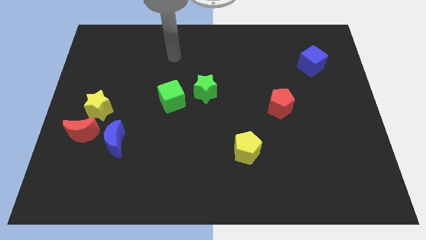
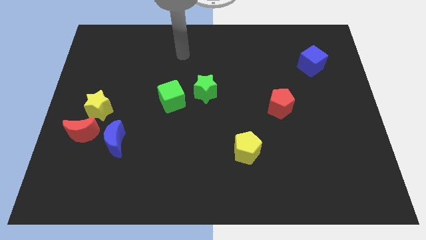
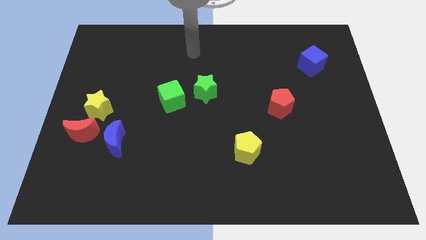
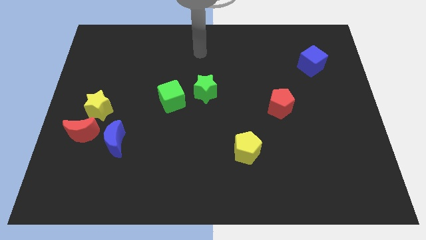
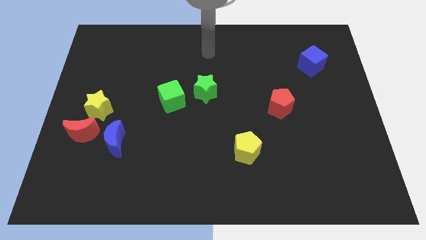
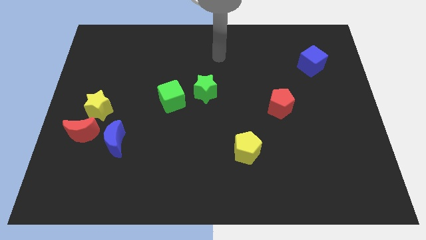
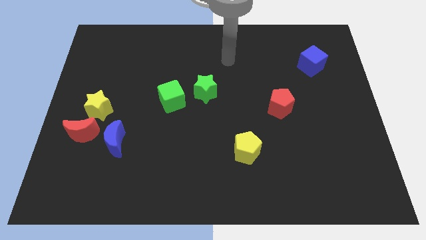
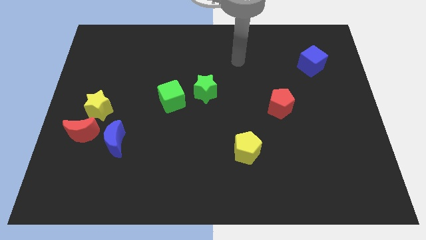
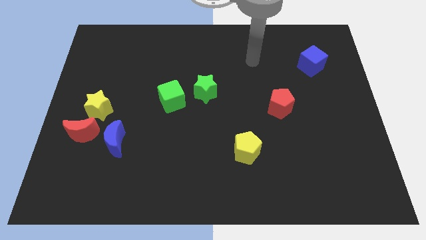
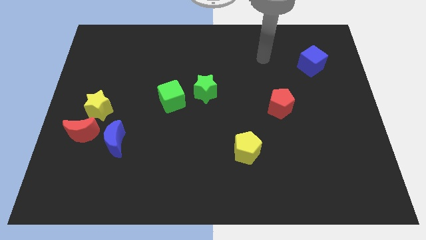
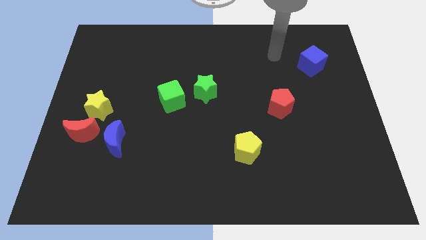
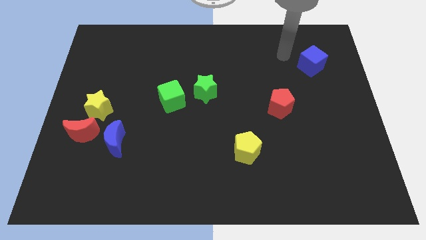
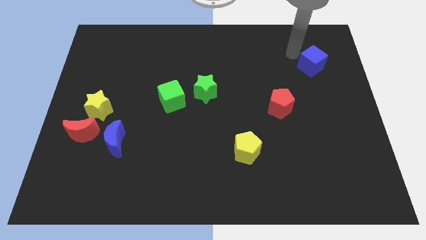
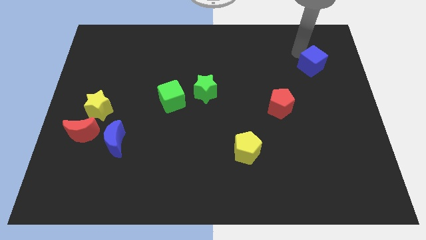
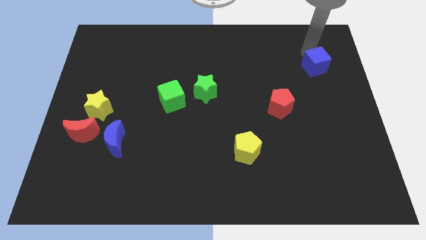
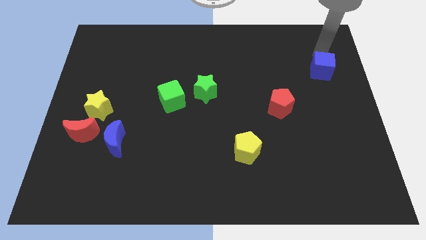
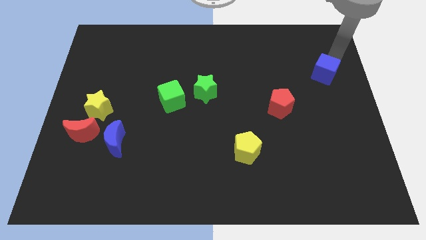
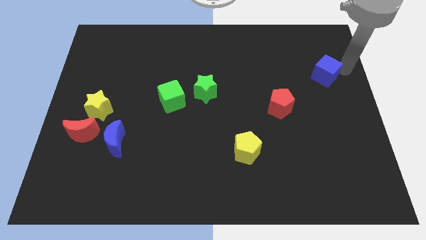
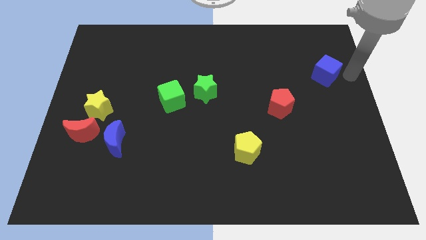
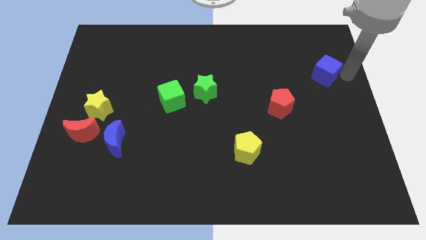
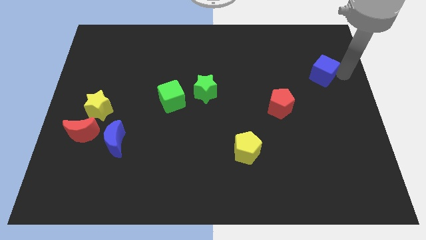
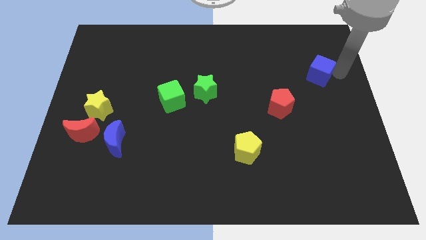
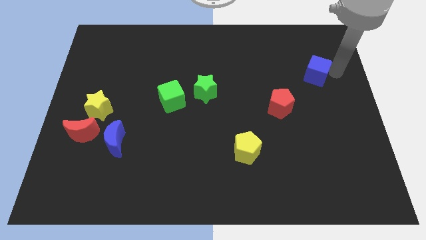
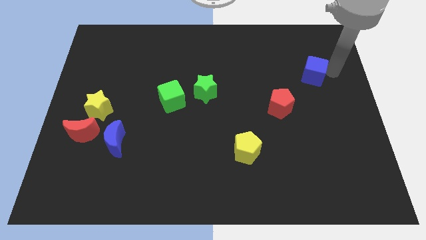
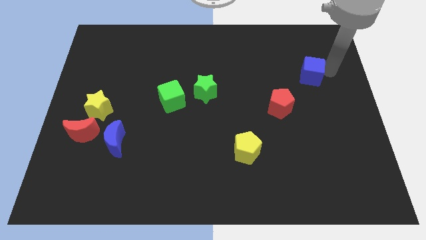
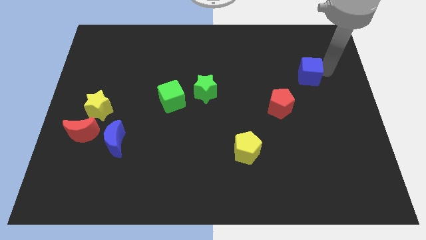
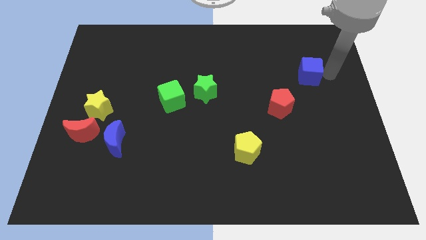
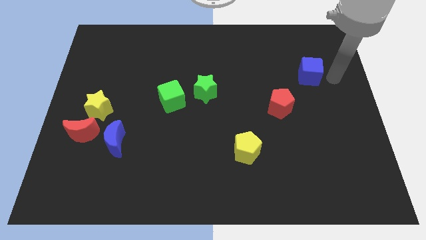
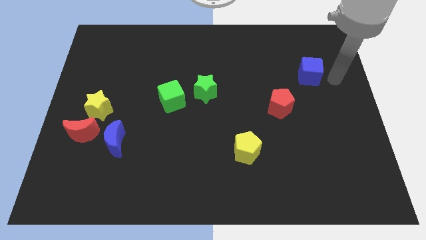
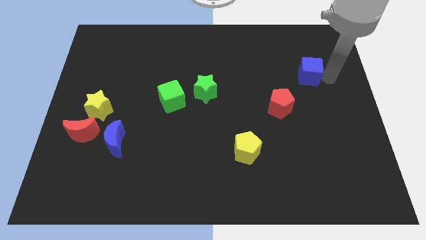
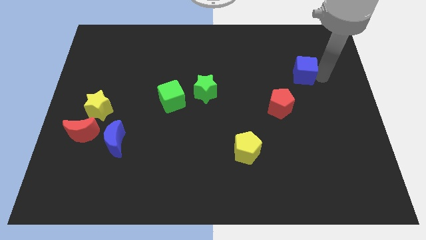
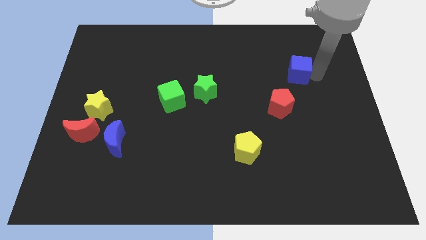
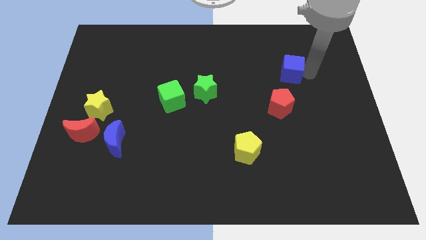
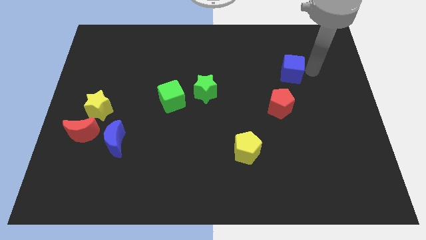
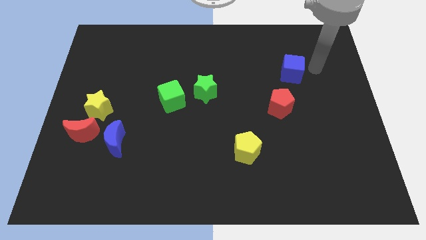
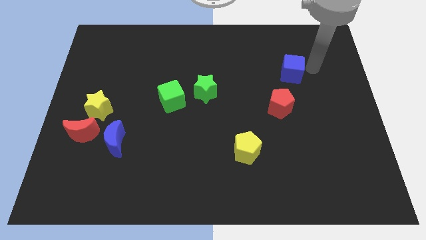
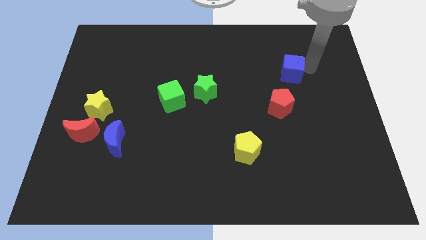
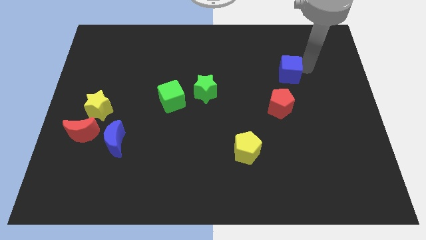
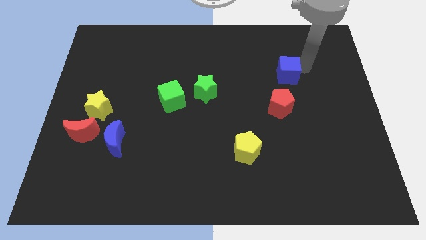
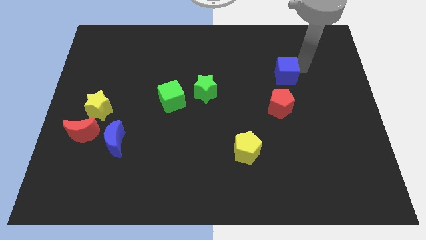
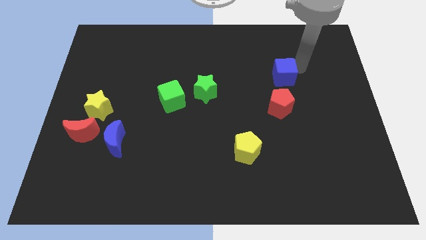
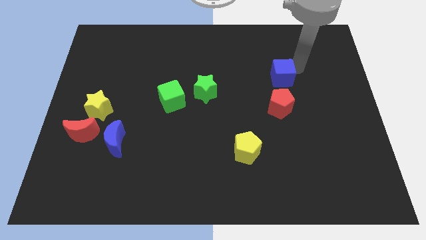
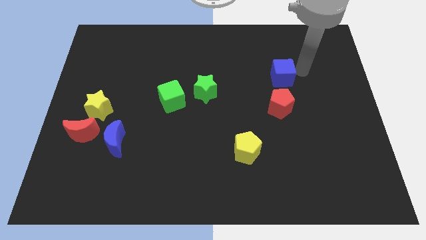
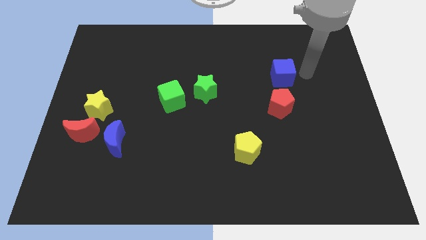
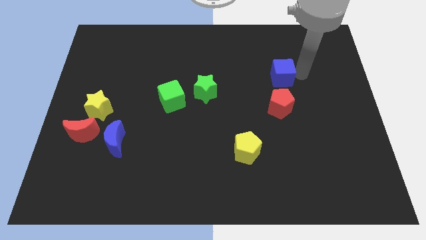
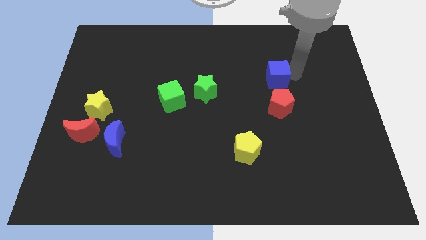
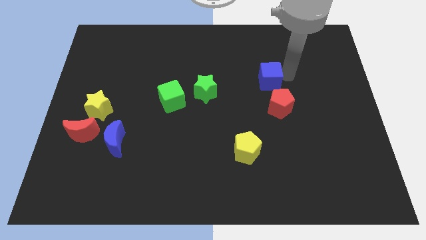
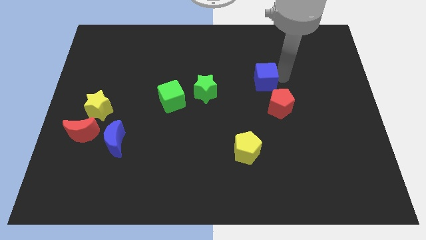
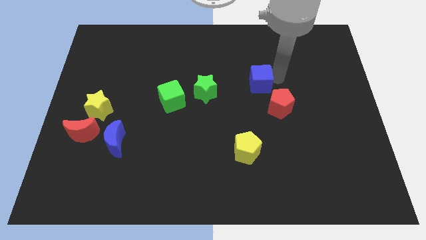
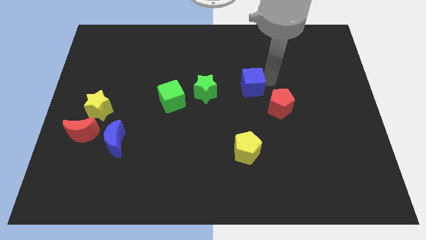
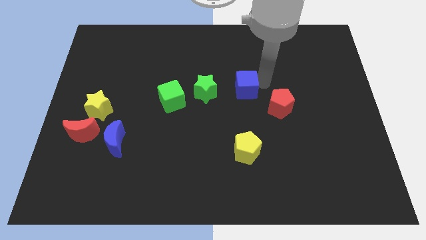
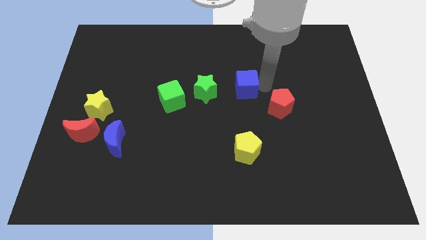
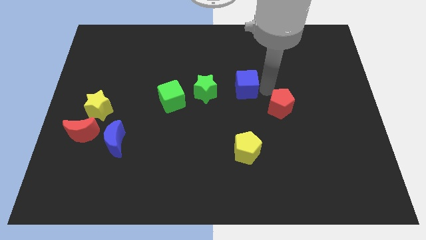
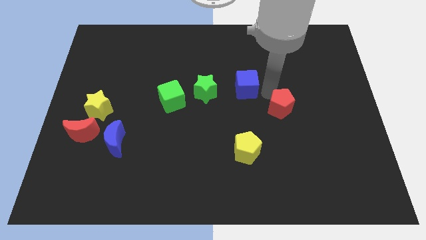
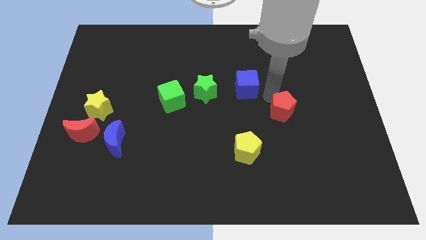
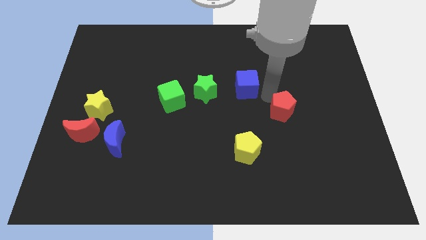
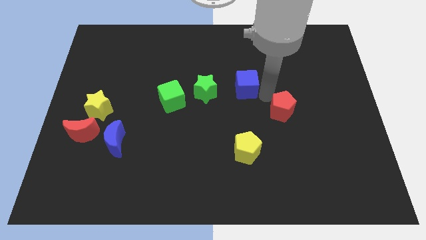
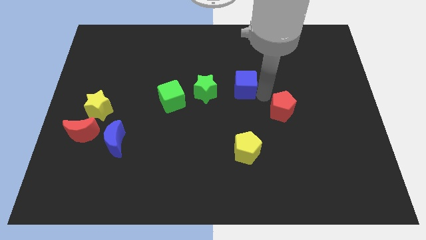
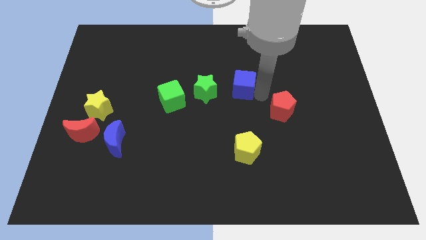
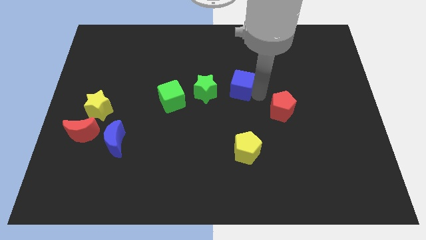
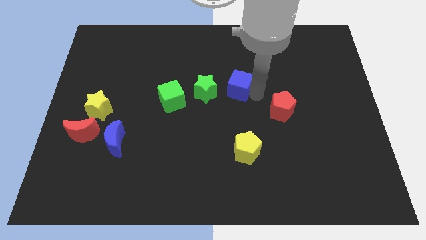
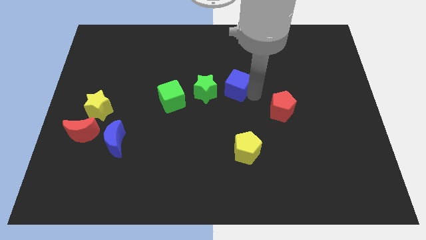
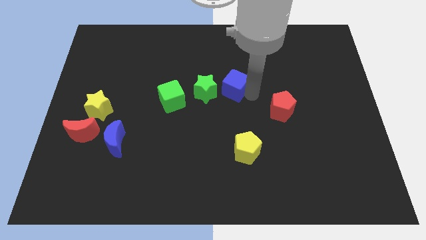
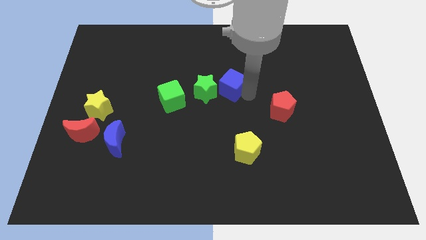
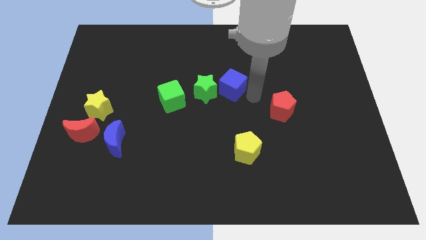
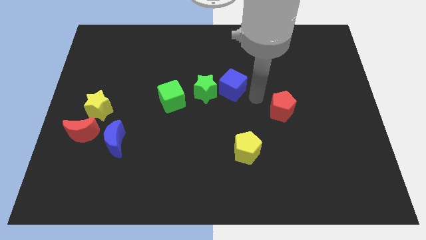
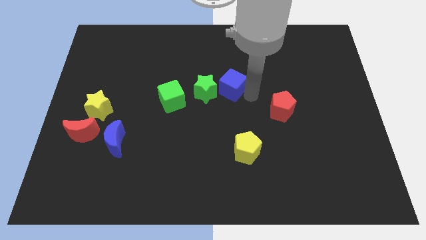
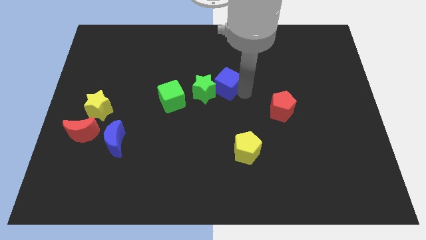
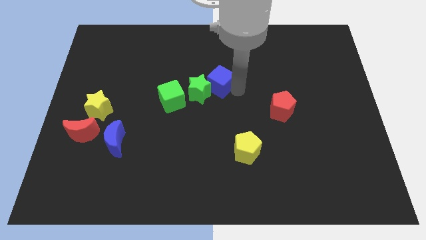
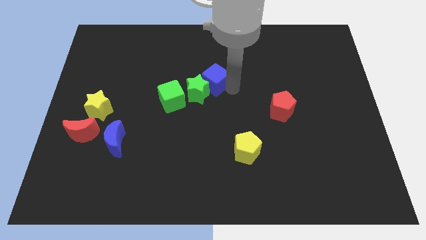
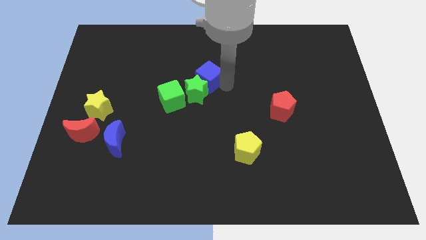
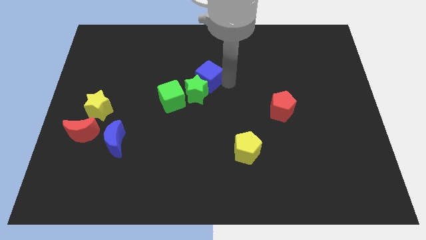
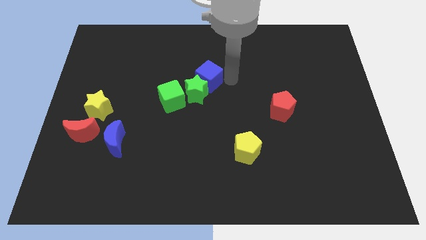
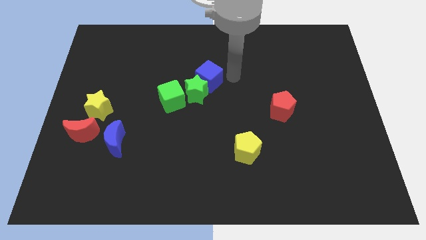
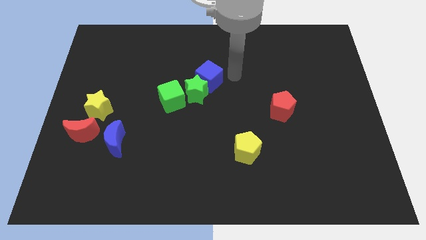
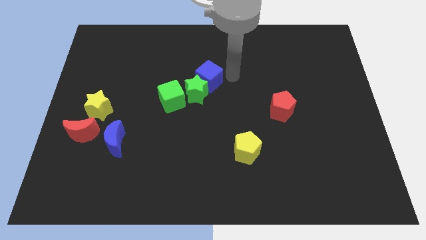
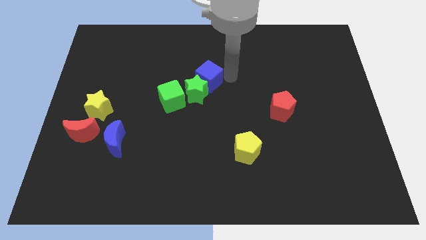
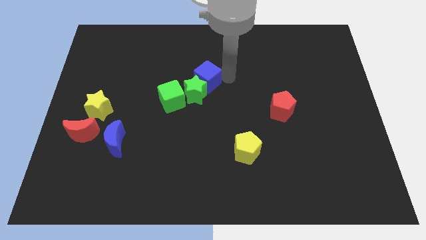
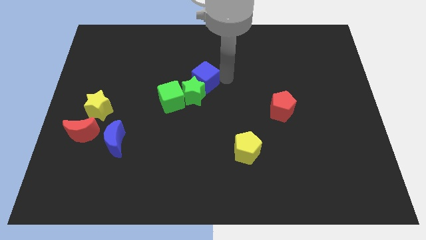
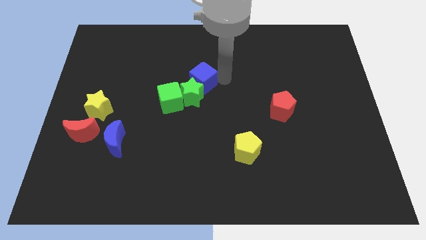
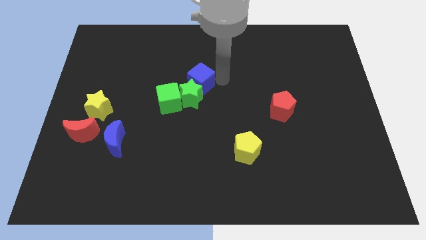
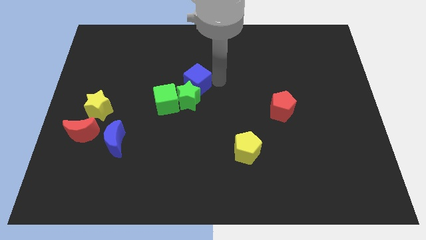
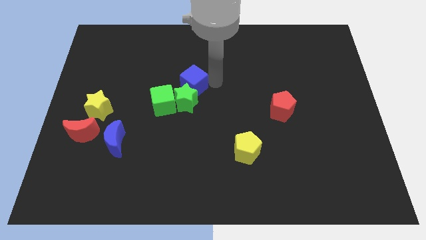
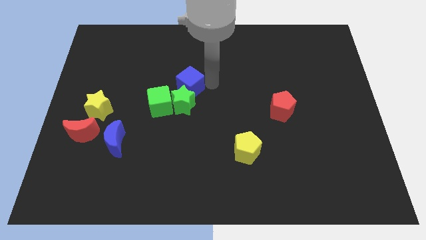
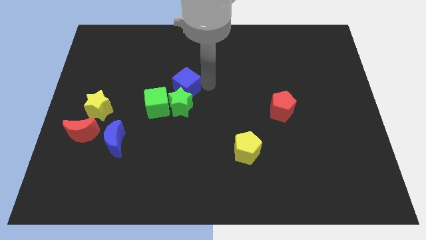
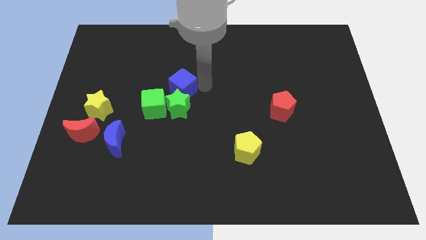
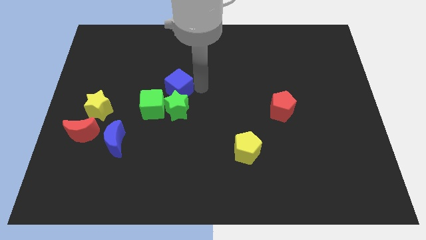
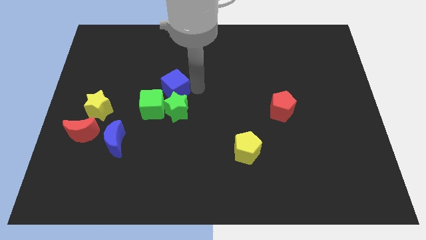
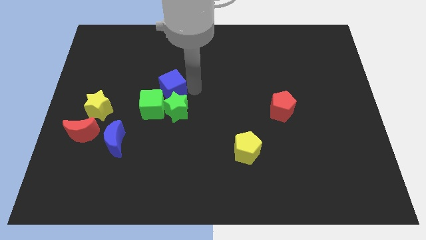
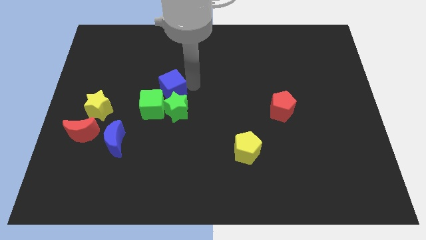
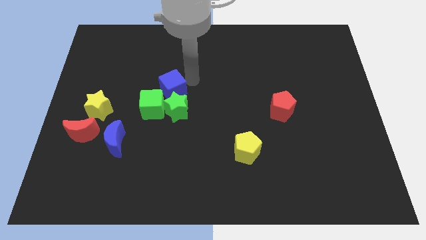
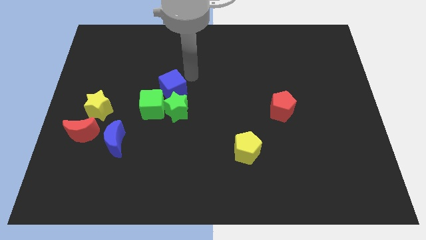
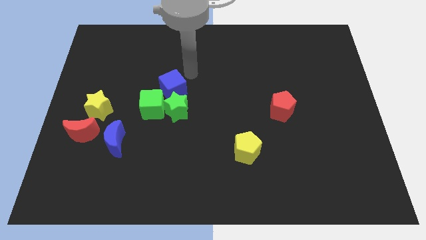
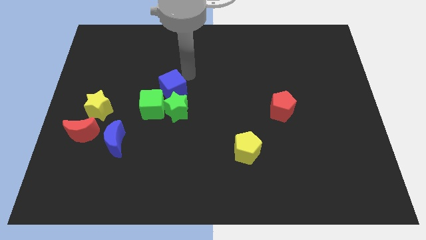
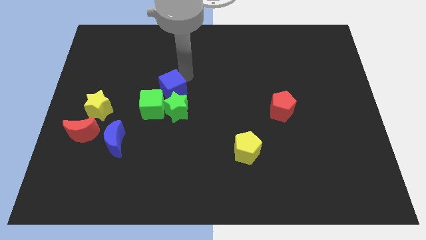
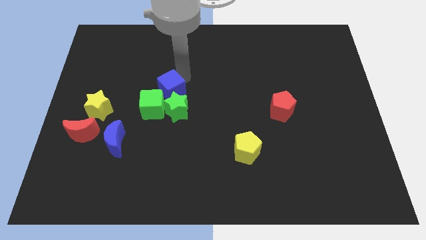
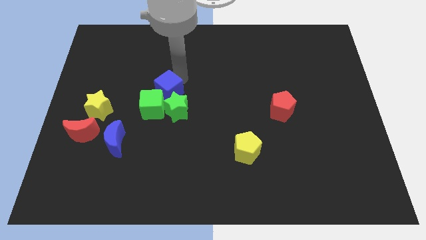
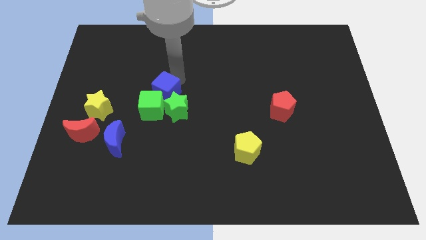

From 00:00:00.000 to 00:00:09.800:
push the blue cube towards the green cube
